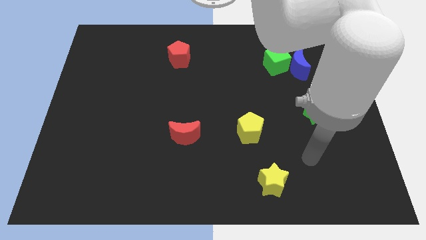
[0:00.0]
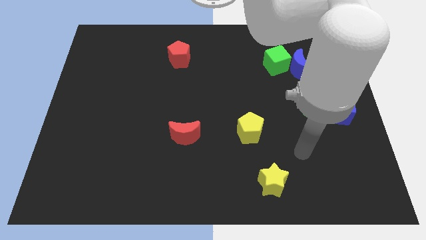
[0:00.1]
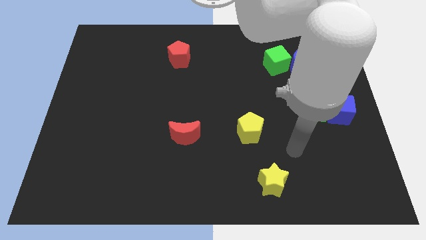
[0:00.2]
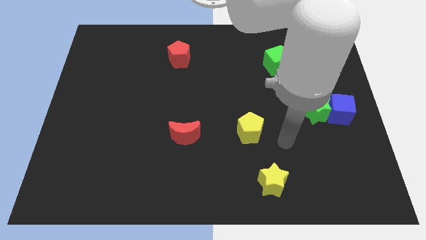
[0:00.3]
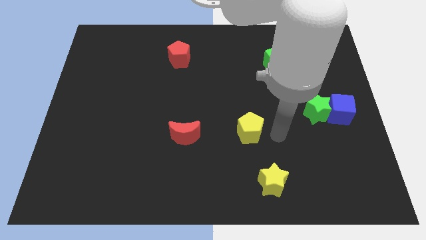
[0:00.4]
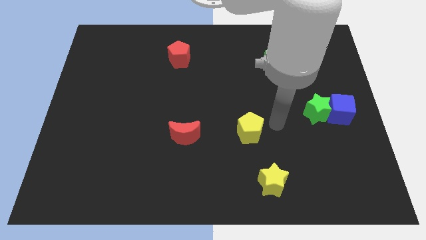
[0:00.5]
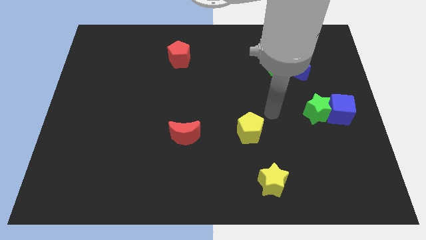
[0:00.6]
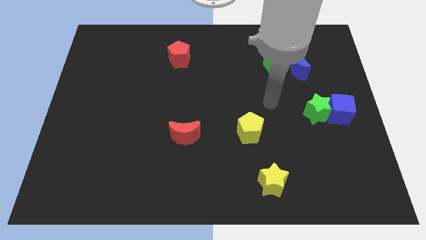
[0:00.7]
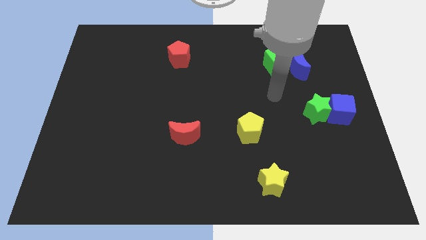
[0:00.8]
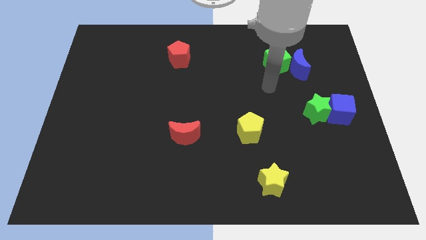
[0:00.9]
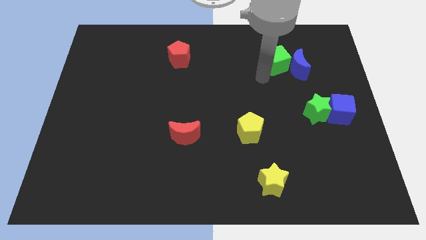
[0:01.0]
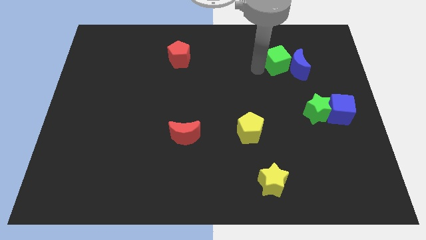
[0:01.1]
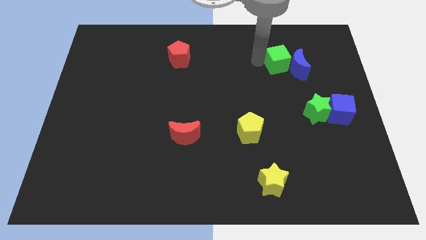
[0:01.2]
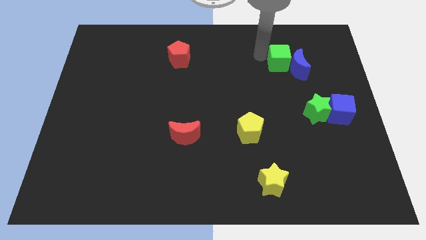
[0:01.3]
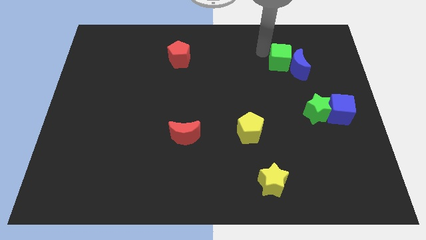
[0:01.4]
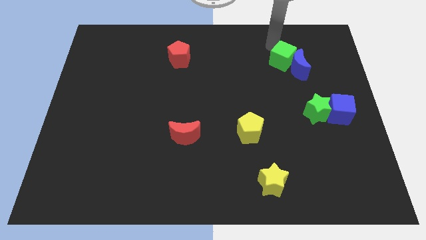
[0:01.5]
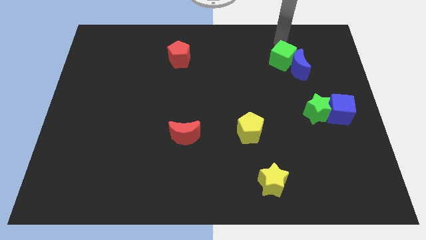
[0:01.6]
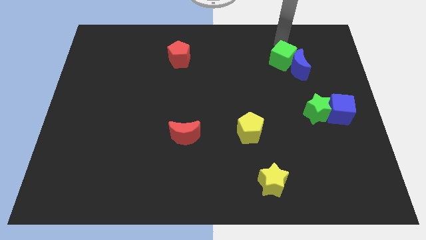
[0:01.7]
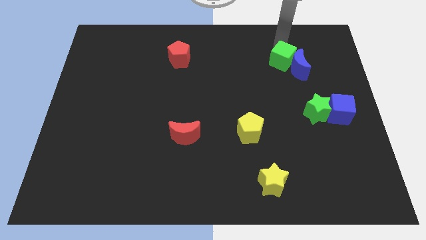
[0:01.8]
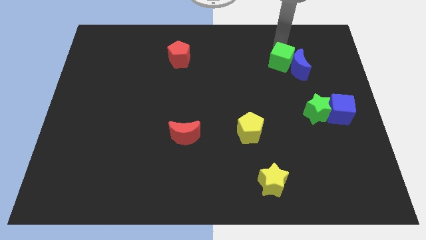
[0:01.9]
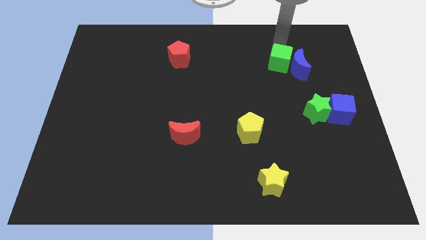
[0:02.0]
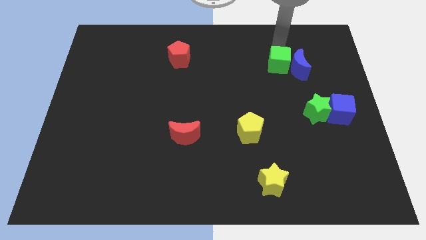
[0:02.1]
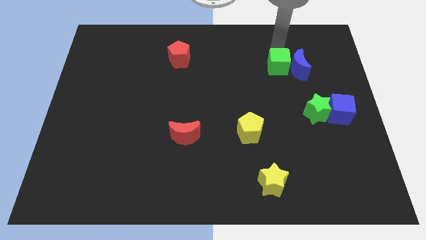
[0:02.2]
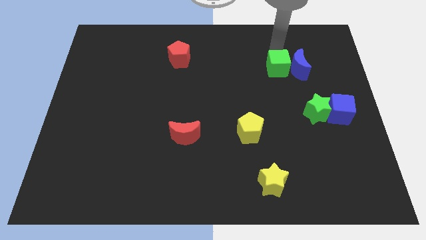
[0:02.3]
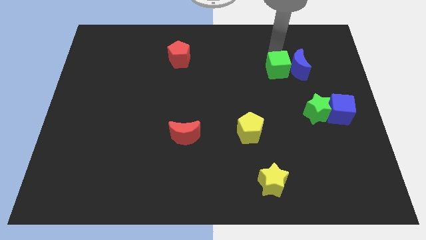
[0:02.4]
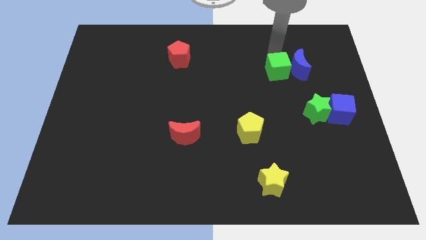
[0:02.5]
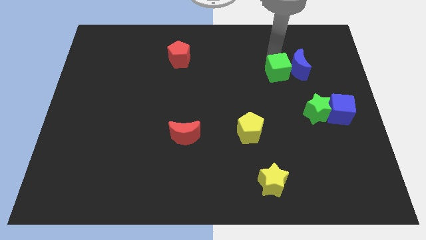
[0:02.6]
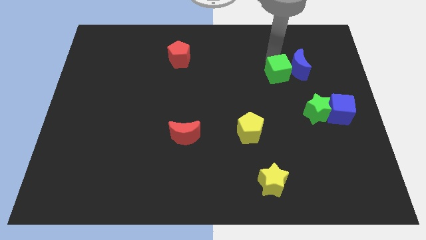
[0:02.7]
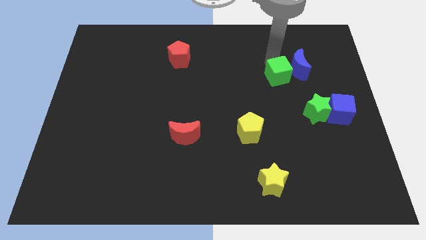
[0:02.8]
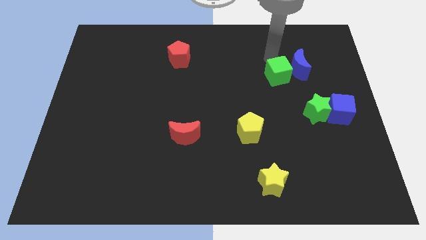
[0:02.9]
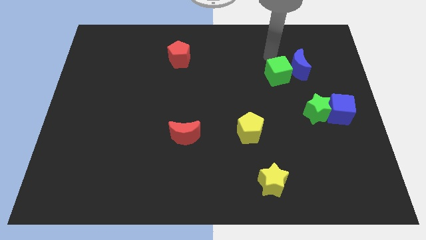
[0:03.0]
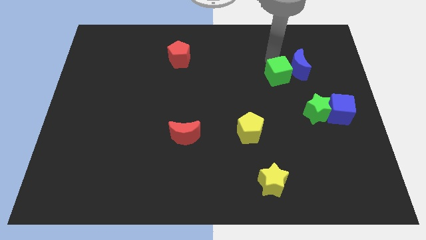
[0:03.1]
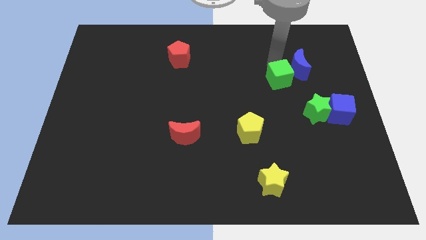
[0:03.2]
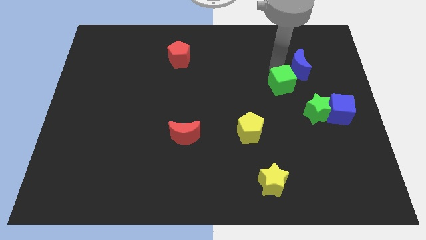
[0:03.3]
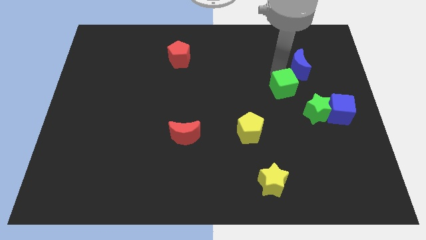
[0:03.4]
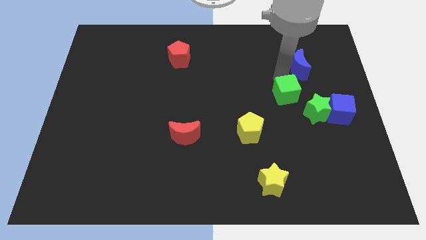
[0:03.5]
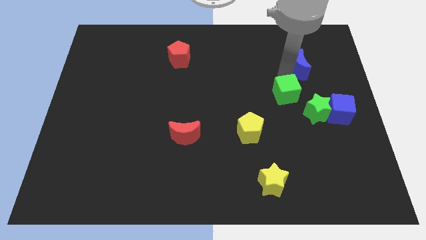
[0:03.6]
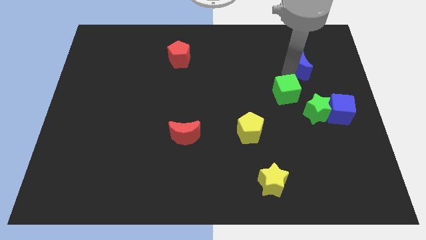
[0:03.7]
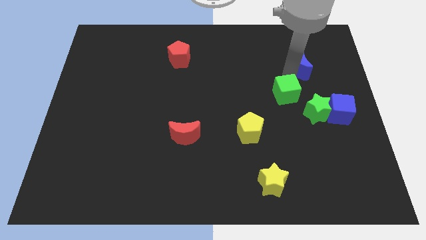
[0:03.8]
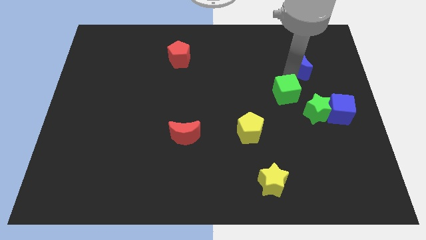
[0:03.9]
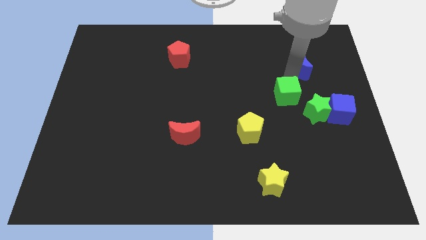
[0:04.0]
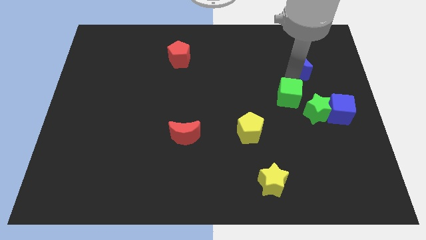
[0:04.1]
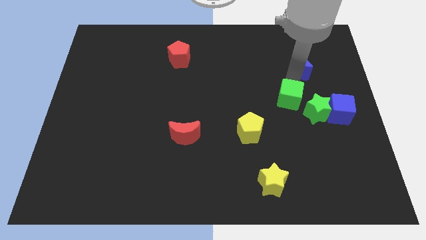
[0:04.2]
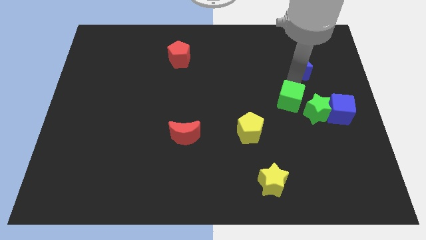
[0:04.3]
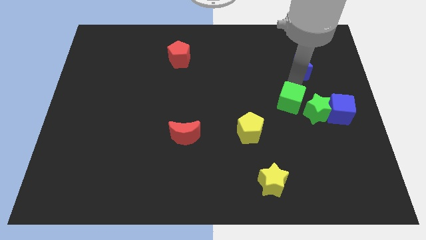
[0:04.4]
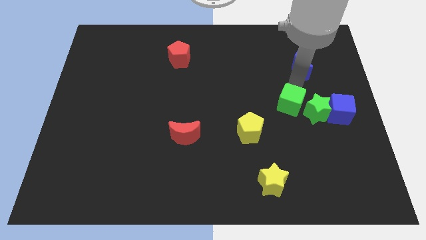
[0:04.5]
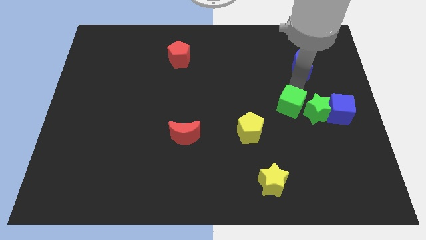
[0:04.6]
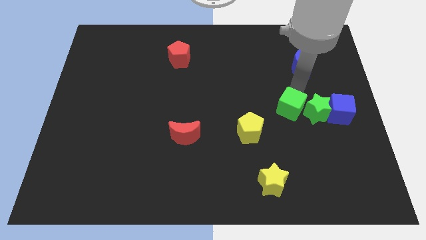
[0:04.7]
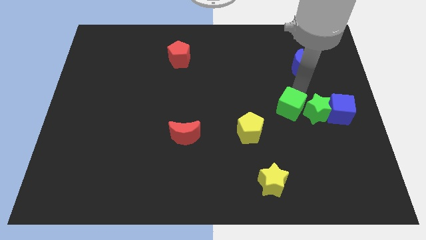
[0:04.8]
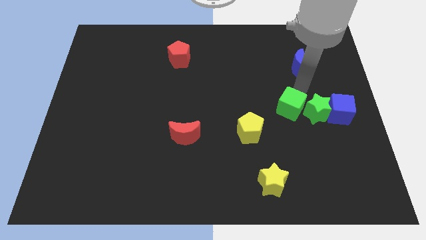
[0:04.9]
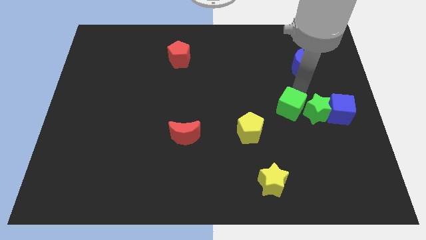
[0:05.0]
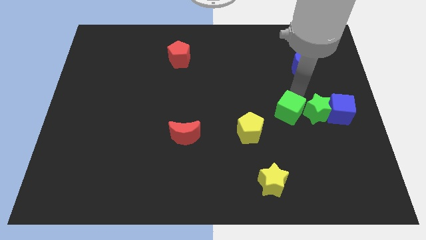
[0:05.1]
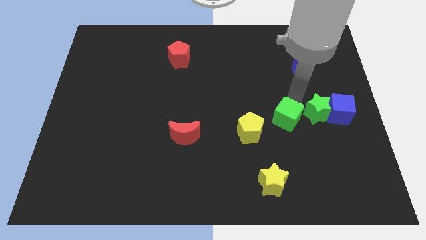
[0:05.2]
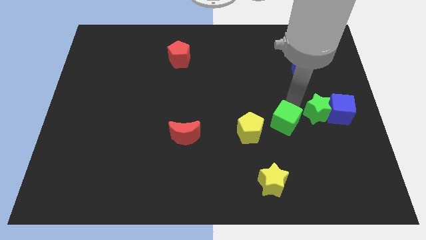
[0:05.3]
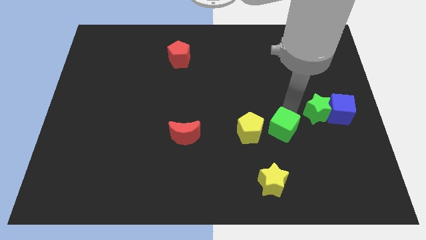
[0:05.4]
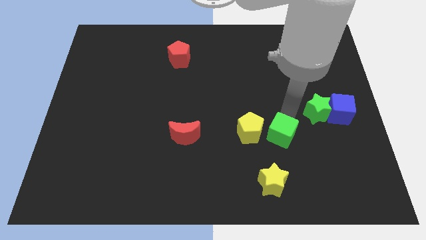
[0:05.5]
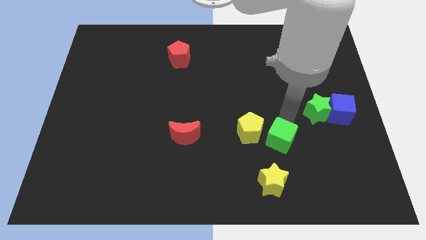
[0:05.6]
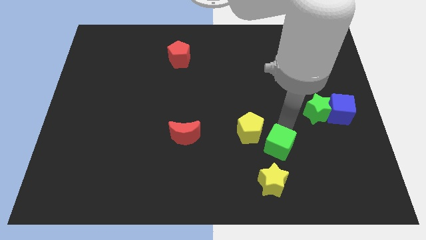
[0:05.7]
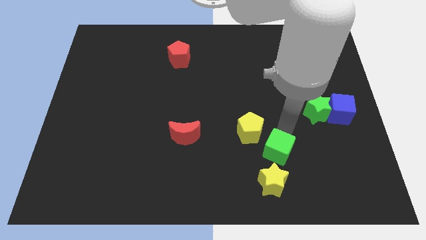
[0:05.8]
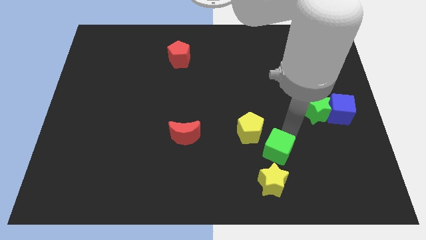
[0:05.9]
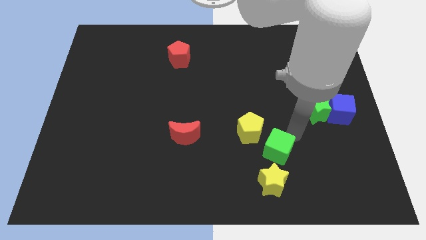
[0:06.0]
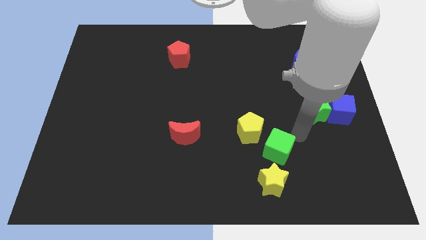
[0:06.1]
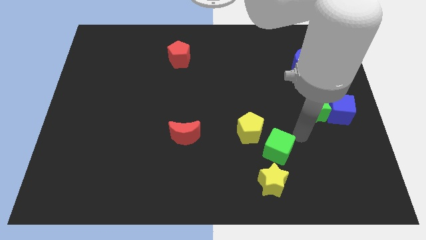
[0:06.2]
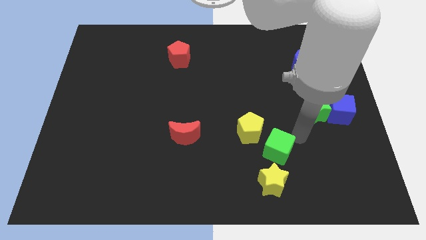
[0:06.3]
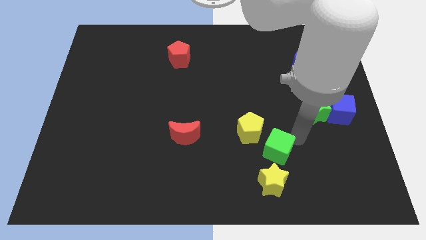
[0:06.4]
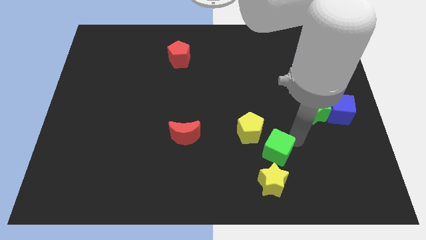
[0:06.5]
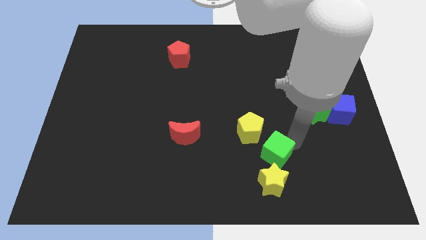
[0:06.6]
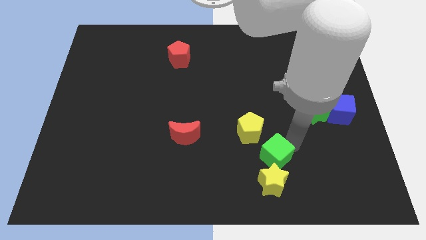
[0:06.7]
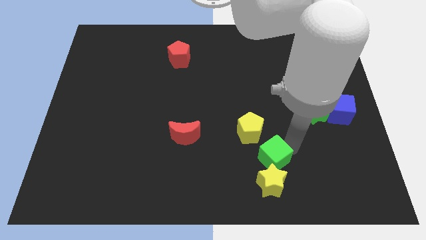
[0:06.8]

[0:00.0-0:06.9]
move the green cube to the bottom of the yellow pentagon

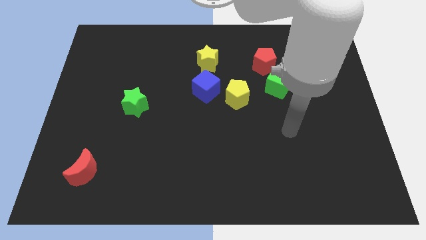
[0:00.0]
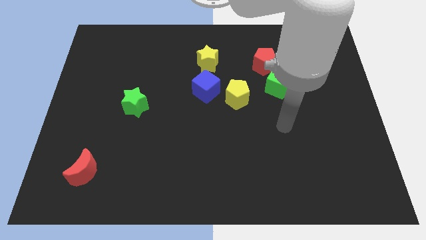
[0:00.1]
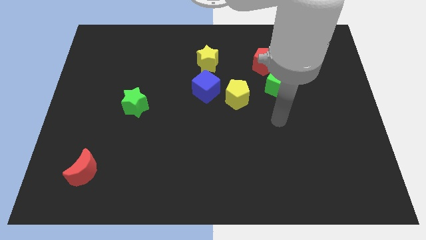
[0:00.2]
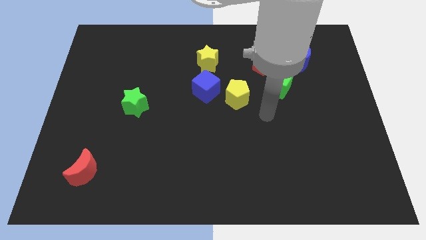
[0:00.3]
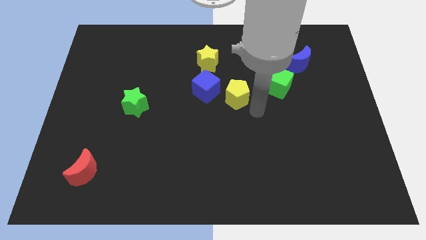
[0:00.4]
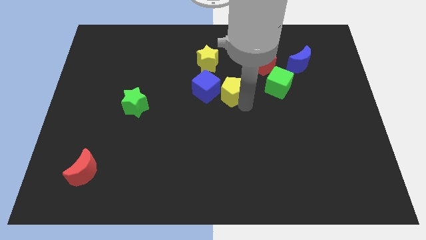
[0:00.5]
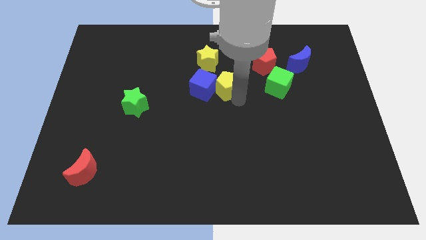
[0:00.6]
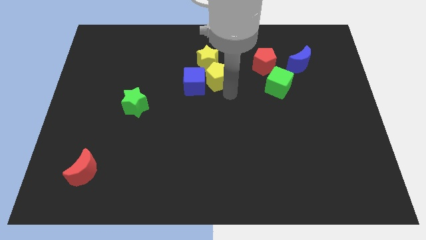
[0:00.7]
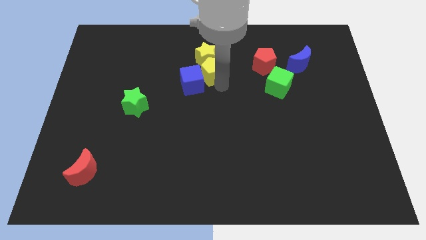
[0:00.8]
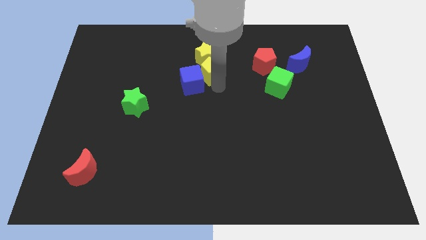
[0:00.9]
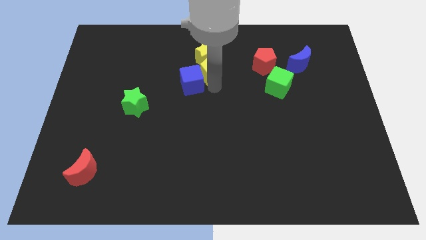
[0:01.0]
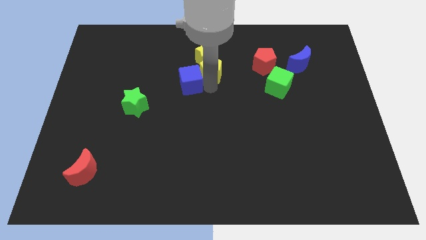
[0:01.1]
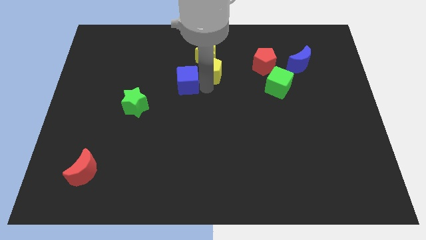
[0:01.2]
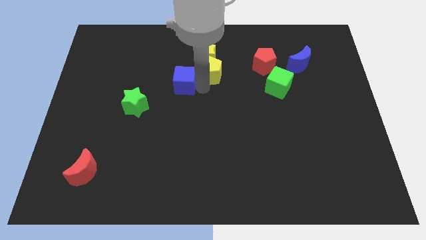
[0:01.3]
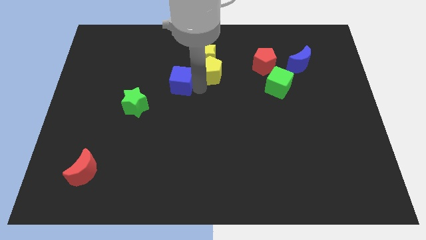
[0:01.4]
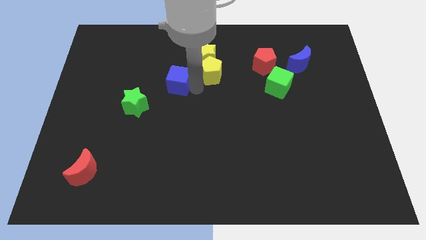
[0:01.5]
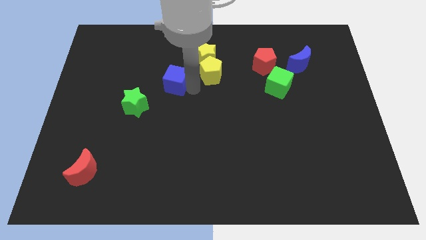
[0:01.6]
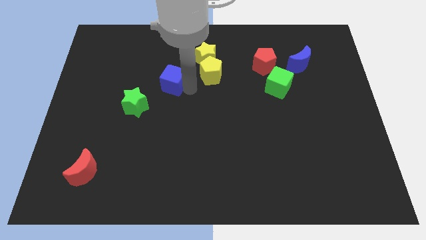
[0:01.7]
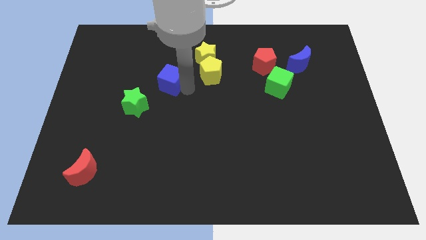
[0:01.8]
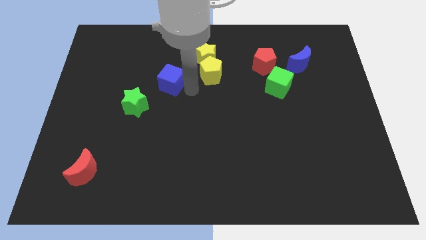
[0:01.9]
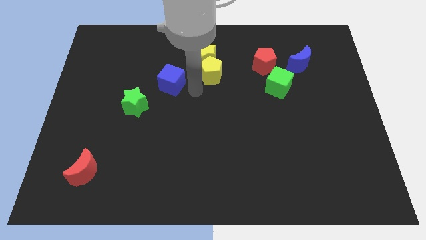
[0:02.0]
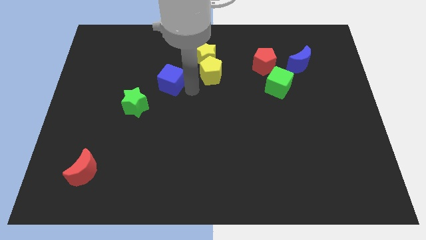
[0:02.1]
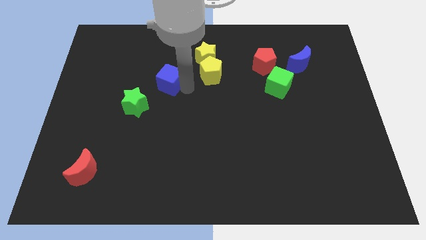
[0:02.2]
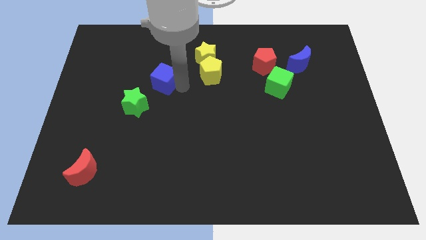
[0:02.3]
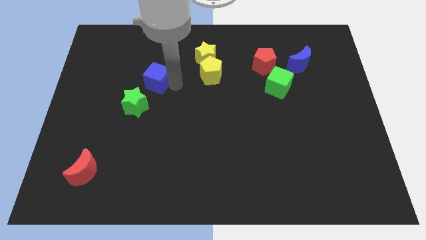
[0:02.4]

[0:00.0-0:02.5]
put the blue cube to the top side of the green star
